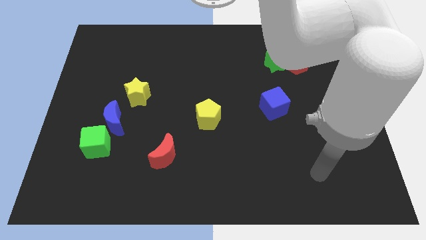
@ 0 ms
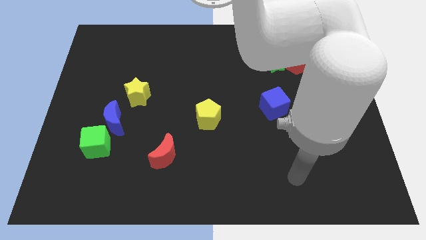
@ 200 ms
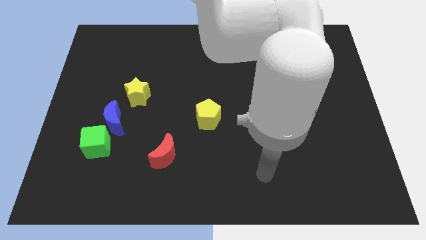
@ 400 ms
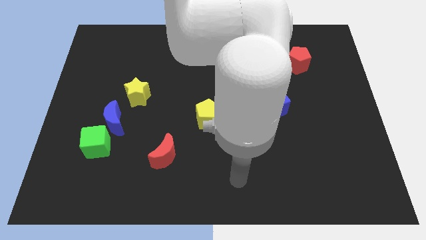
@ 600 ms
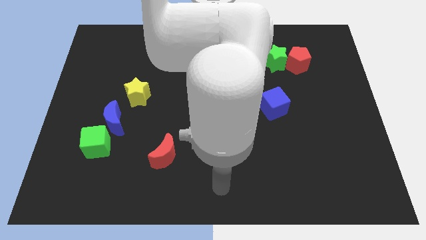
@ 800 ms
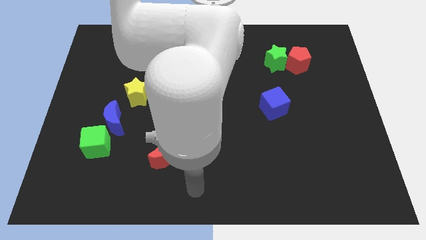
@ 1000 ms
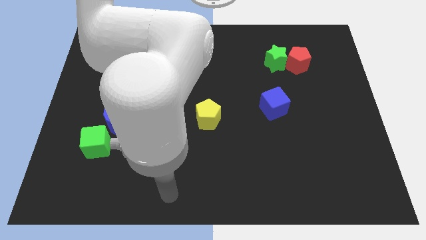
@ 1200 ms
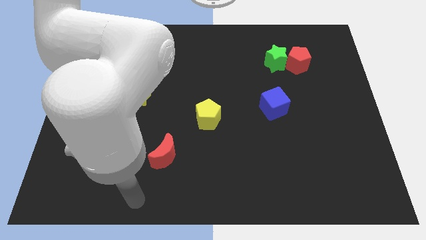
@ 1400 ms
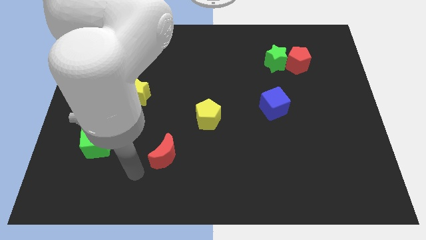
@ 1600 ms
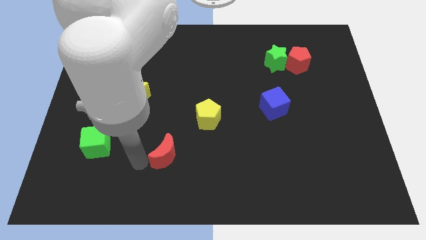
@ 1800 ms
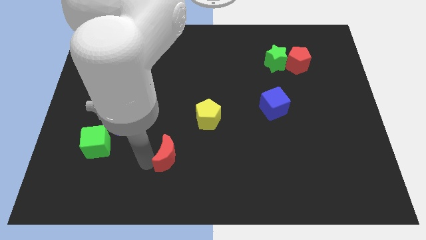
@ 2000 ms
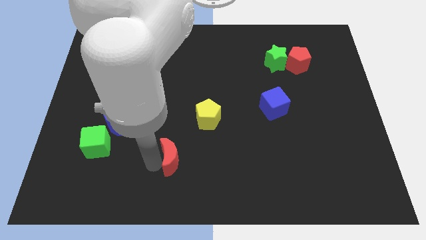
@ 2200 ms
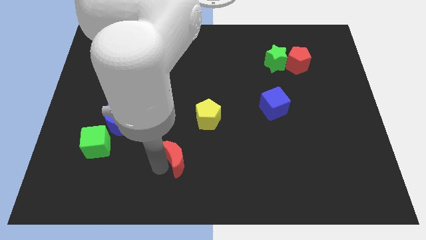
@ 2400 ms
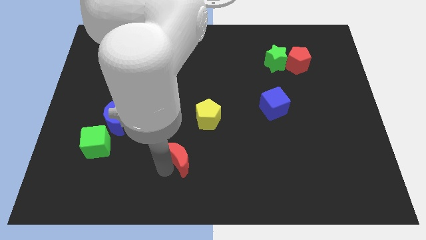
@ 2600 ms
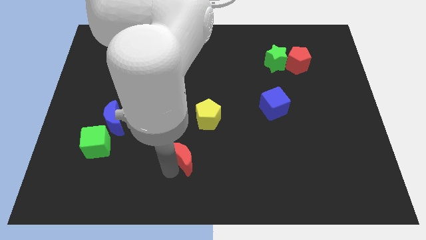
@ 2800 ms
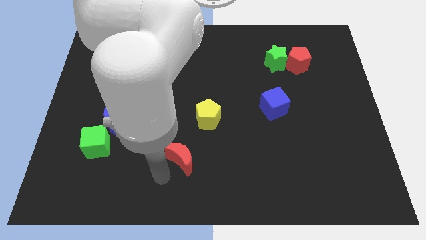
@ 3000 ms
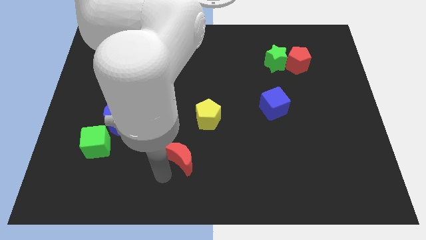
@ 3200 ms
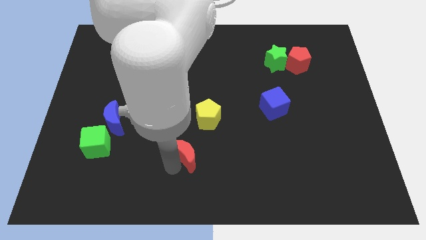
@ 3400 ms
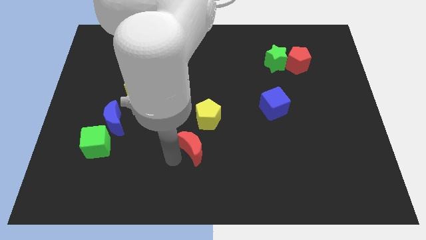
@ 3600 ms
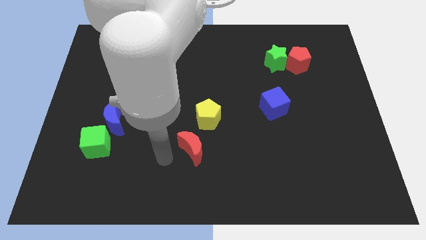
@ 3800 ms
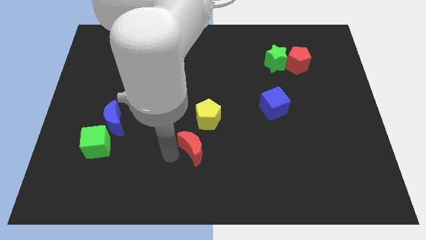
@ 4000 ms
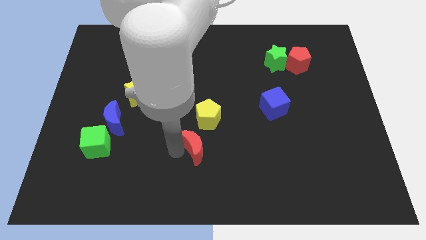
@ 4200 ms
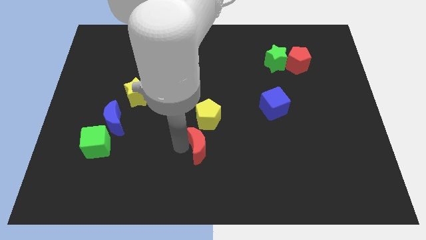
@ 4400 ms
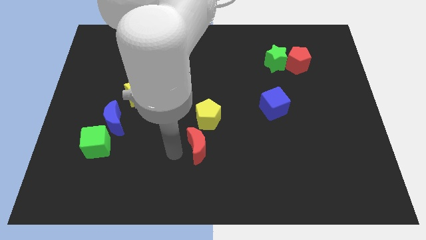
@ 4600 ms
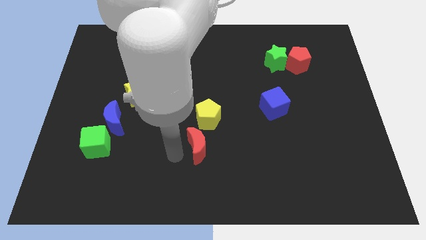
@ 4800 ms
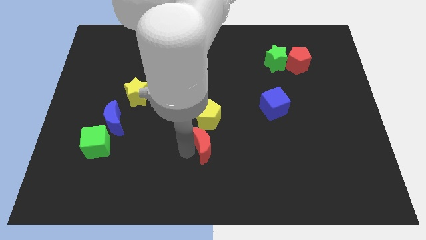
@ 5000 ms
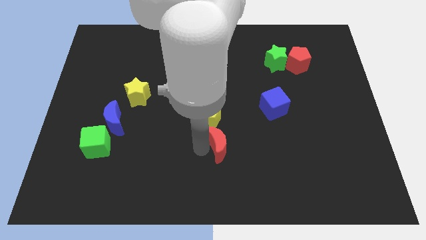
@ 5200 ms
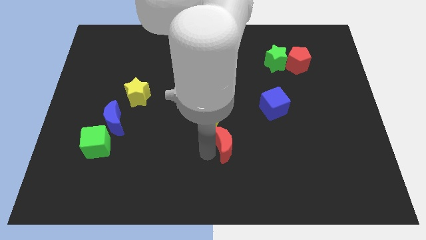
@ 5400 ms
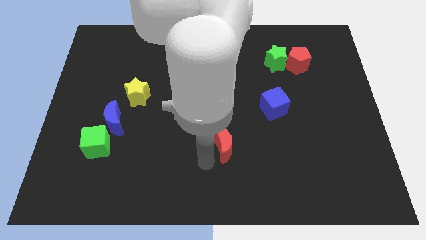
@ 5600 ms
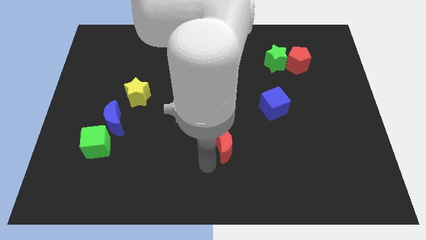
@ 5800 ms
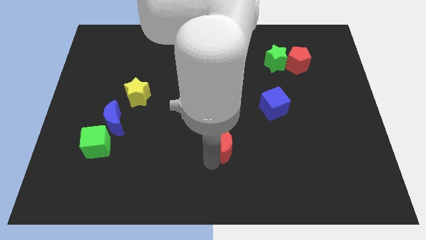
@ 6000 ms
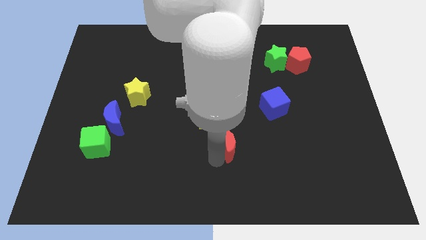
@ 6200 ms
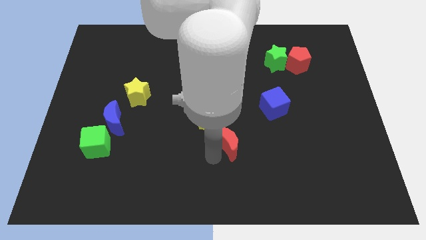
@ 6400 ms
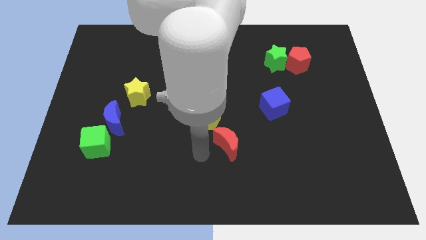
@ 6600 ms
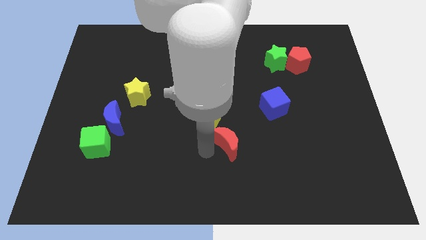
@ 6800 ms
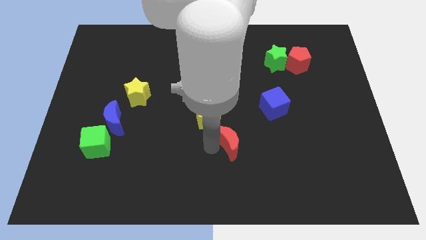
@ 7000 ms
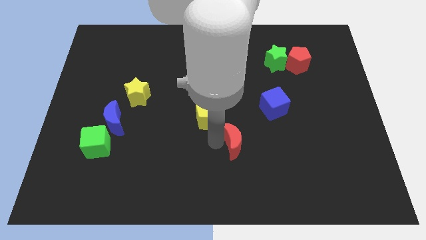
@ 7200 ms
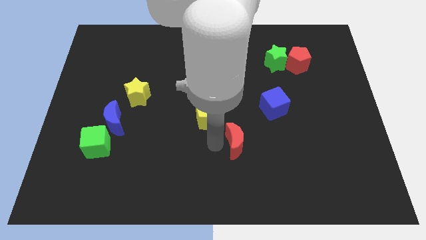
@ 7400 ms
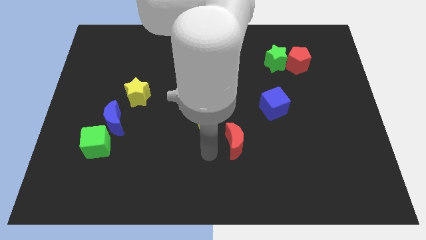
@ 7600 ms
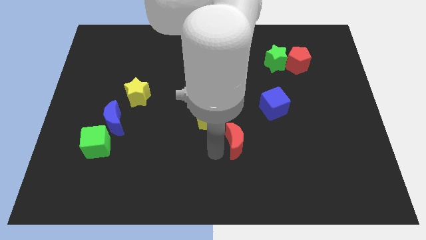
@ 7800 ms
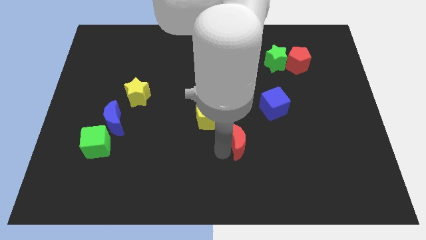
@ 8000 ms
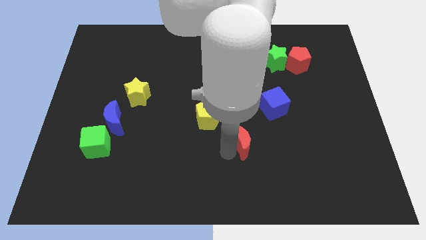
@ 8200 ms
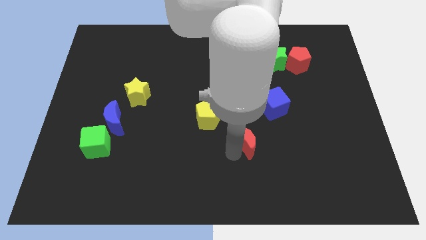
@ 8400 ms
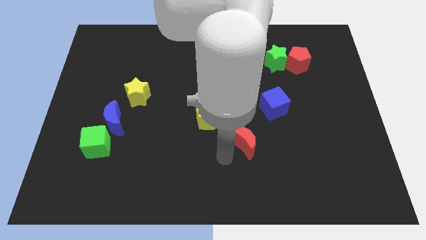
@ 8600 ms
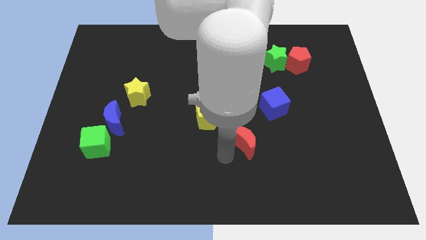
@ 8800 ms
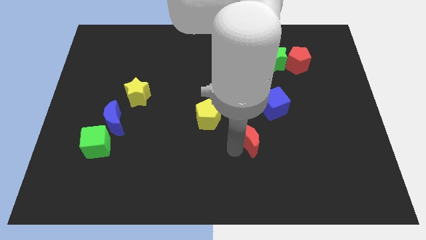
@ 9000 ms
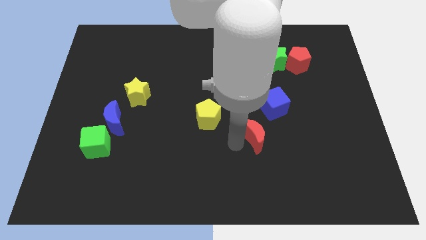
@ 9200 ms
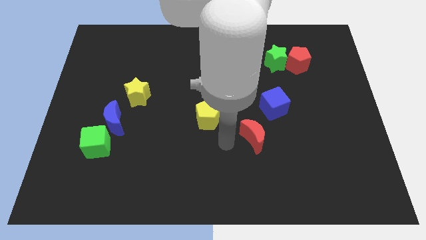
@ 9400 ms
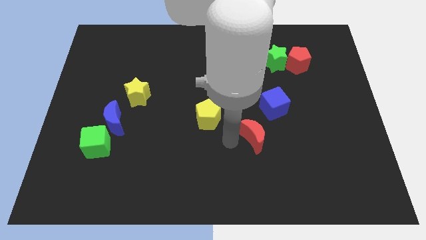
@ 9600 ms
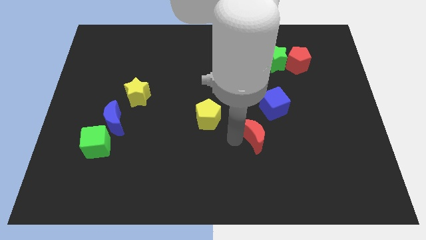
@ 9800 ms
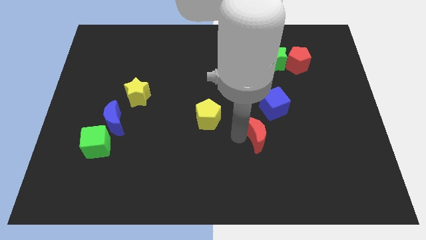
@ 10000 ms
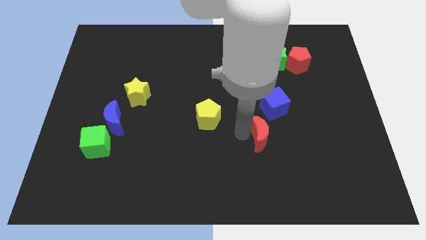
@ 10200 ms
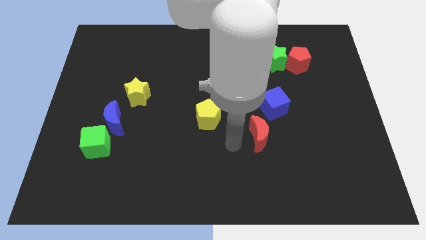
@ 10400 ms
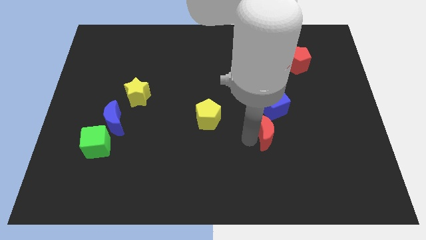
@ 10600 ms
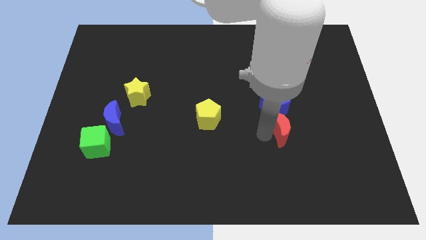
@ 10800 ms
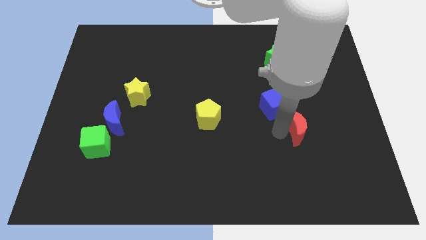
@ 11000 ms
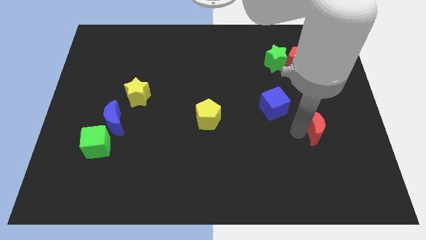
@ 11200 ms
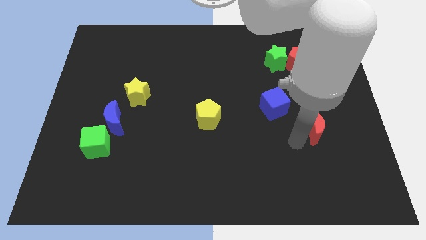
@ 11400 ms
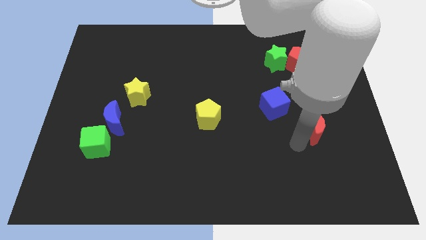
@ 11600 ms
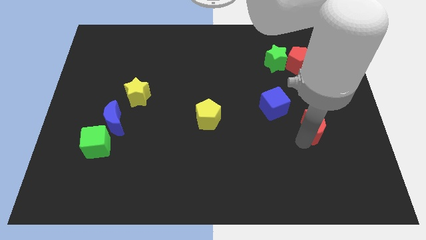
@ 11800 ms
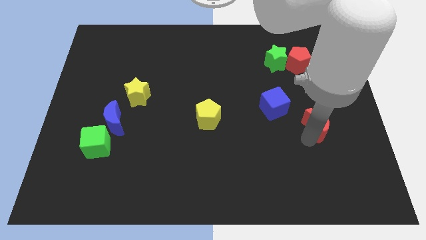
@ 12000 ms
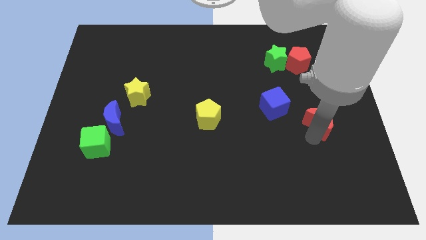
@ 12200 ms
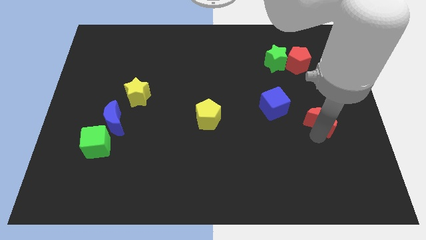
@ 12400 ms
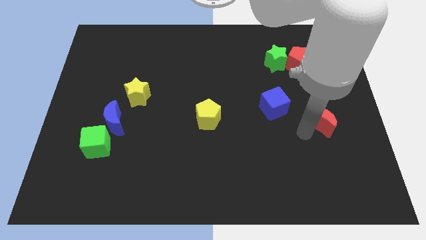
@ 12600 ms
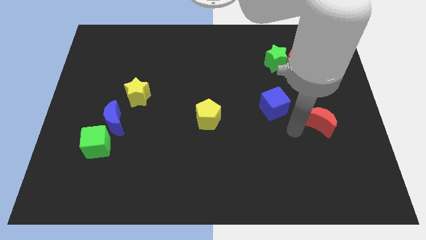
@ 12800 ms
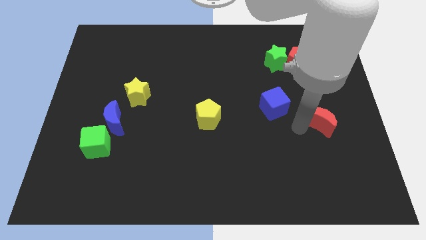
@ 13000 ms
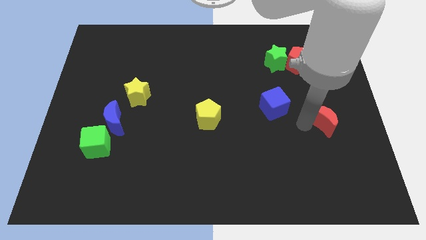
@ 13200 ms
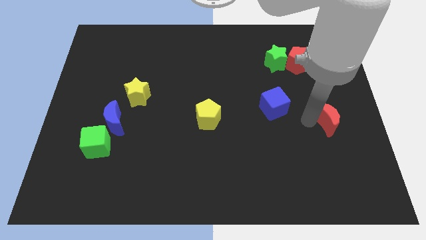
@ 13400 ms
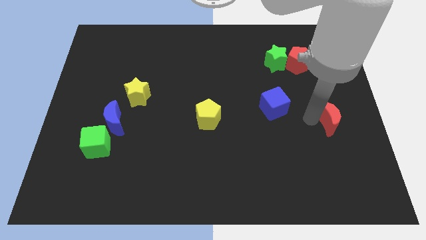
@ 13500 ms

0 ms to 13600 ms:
slide the red moon to the center right
